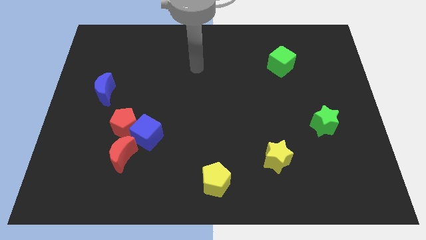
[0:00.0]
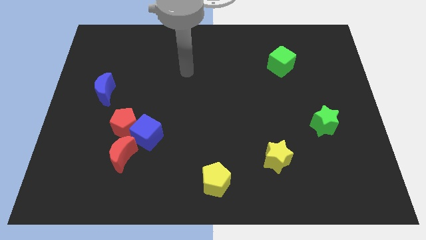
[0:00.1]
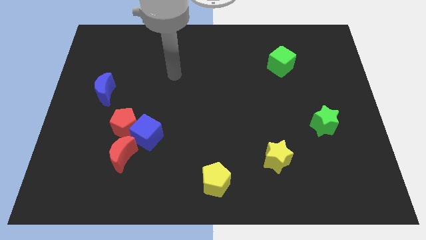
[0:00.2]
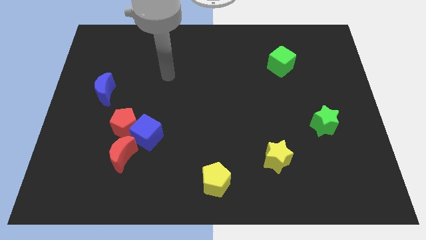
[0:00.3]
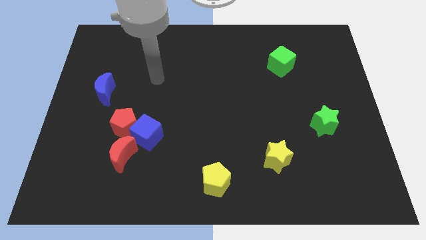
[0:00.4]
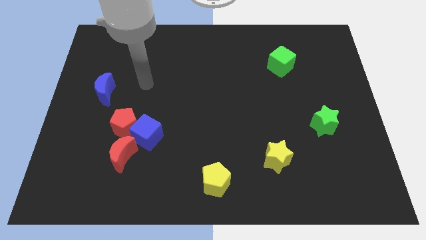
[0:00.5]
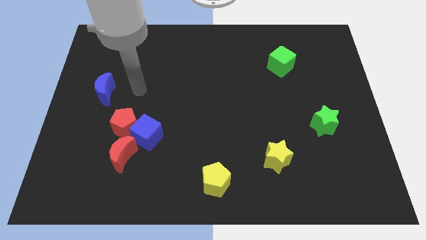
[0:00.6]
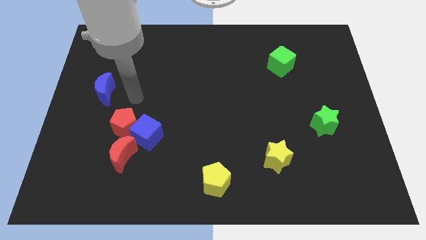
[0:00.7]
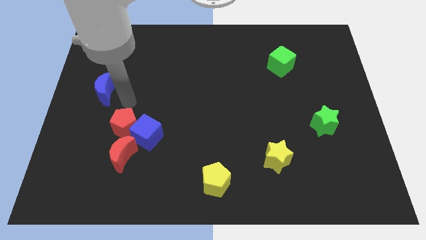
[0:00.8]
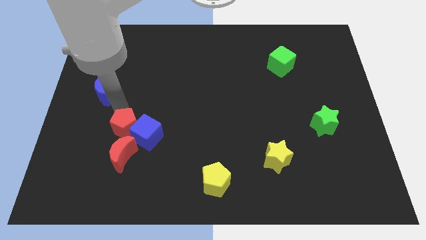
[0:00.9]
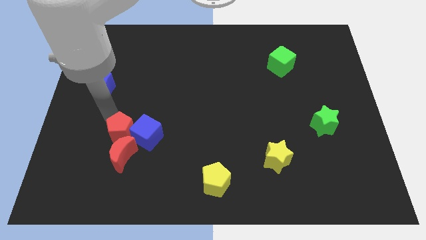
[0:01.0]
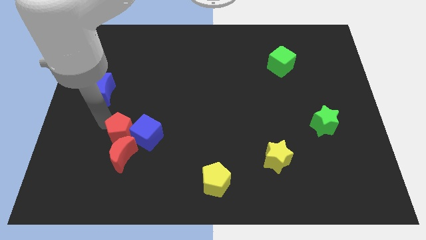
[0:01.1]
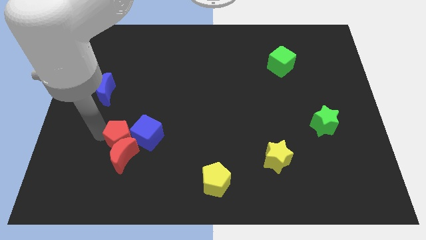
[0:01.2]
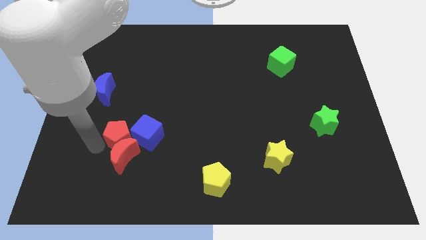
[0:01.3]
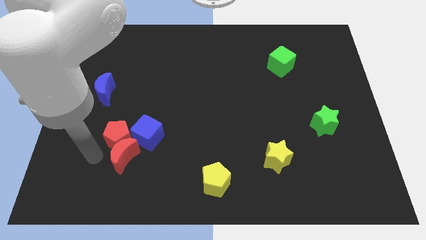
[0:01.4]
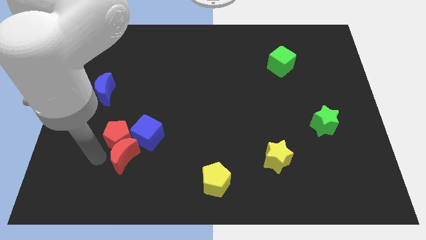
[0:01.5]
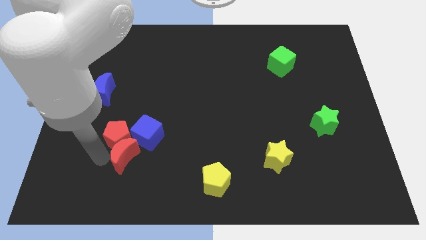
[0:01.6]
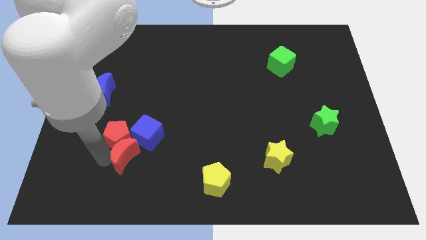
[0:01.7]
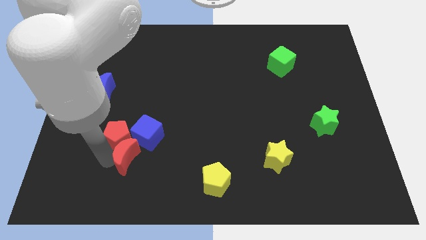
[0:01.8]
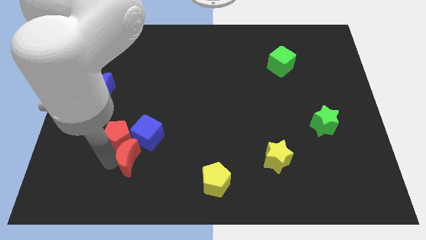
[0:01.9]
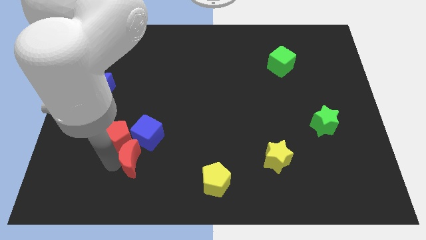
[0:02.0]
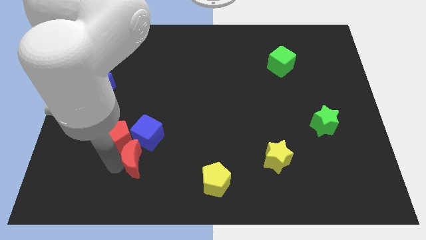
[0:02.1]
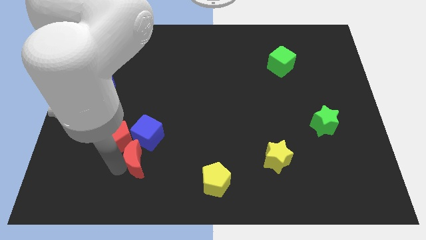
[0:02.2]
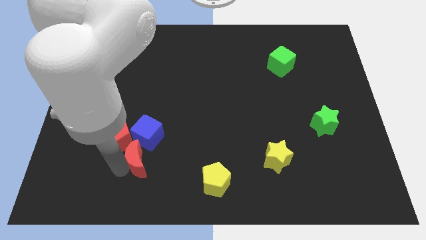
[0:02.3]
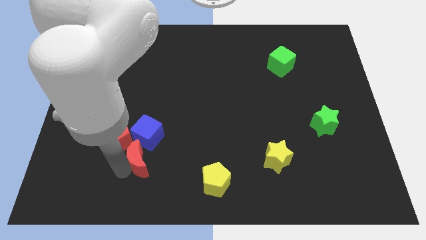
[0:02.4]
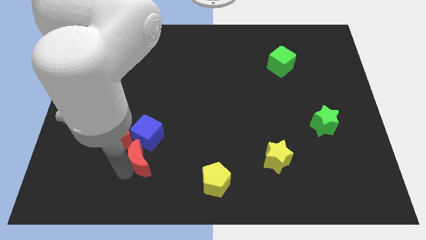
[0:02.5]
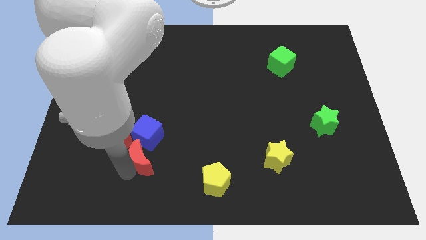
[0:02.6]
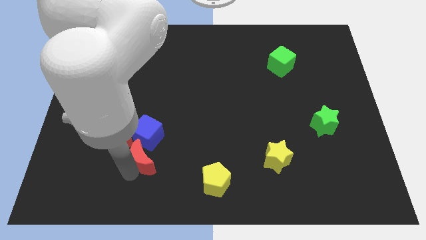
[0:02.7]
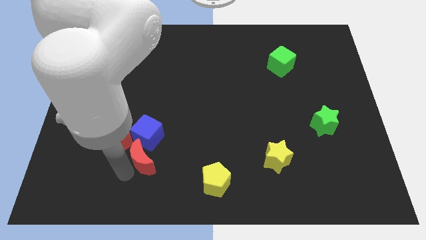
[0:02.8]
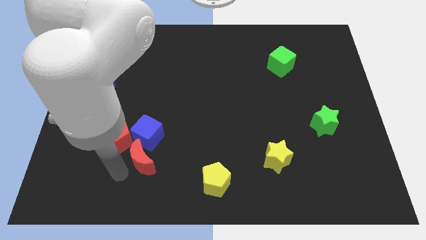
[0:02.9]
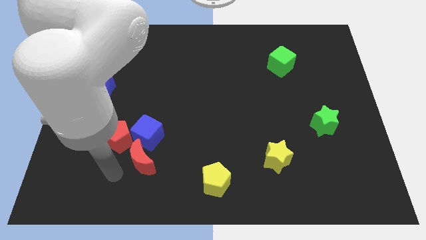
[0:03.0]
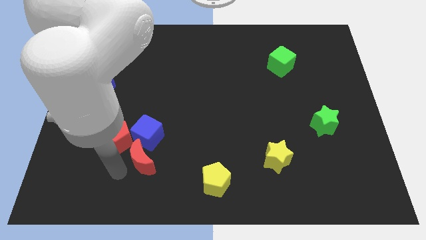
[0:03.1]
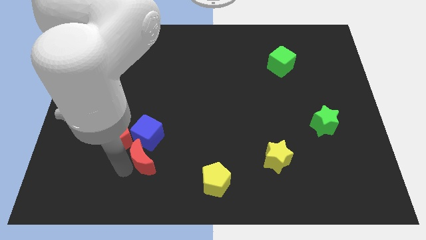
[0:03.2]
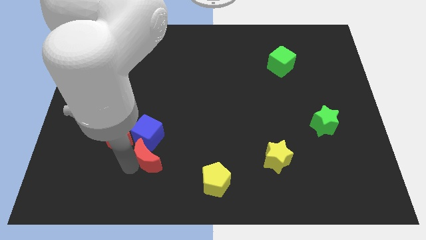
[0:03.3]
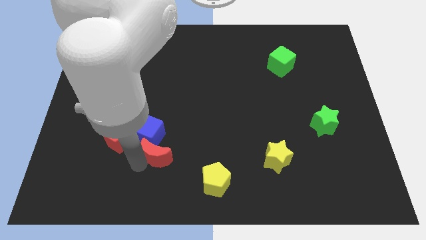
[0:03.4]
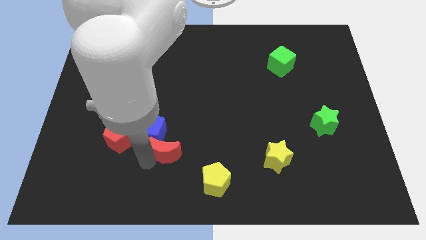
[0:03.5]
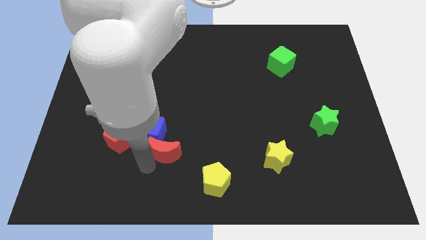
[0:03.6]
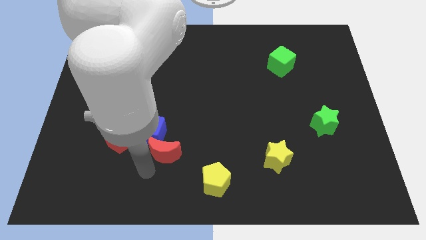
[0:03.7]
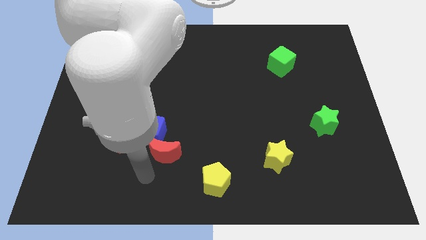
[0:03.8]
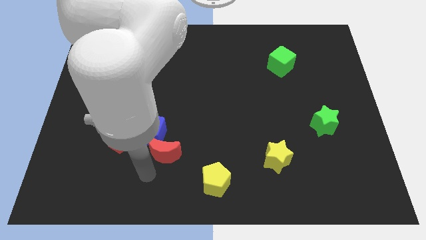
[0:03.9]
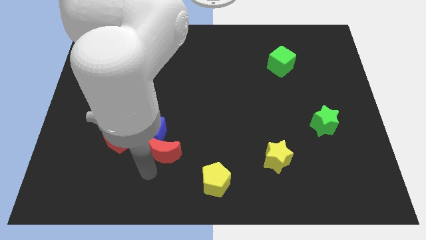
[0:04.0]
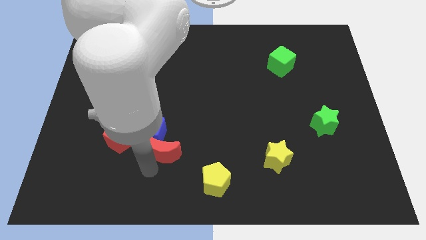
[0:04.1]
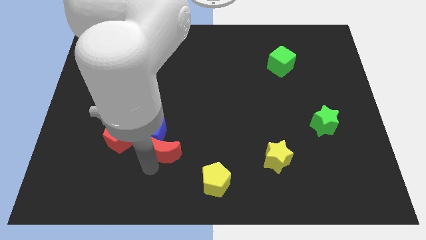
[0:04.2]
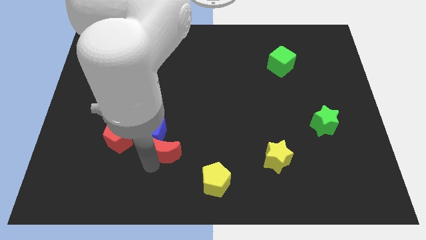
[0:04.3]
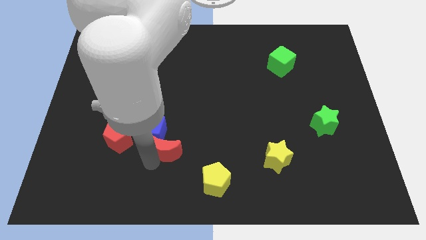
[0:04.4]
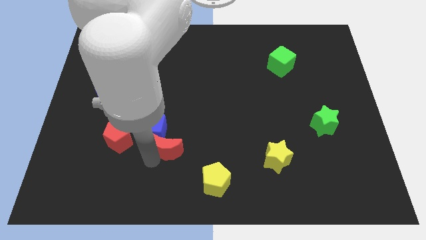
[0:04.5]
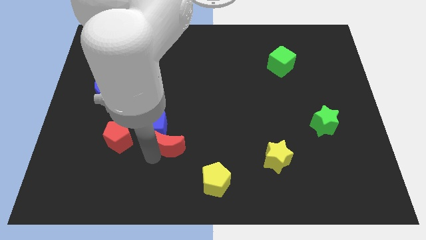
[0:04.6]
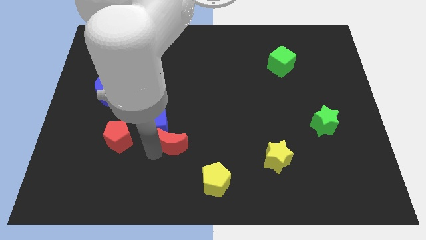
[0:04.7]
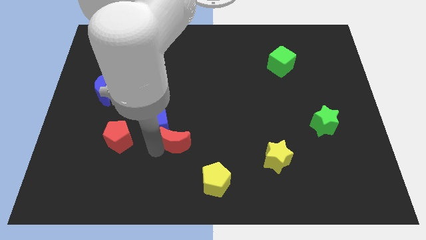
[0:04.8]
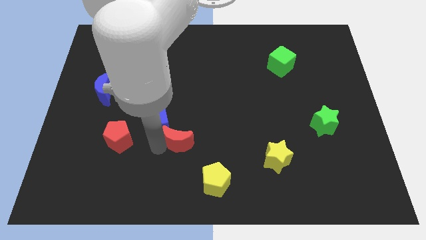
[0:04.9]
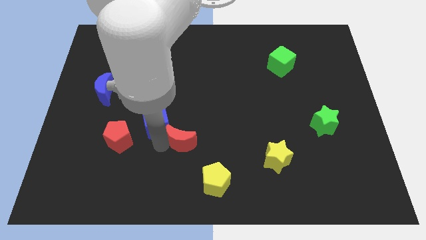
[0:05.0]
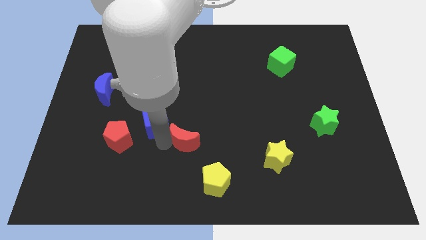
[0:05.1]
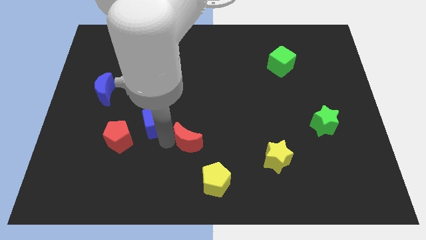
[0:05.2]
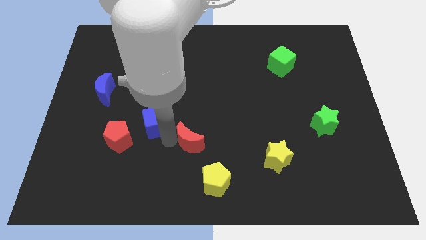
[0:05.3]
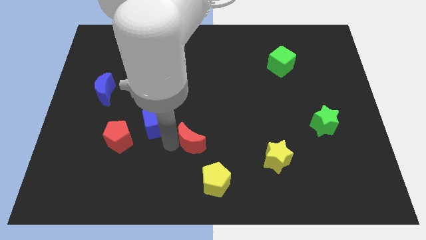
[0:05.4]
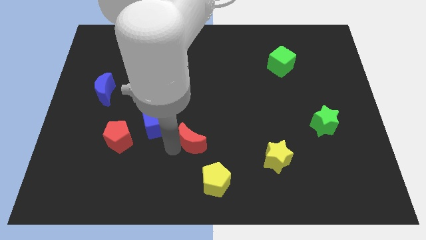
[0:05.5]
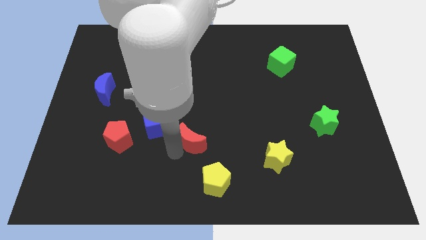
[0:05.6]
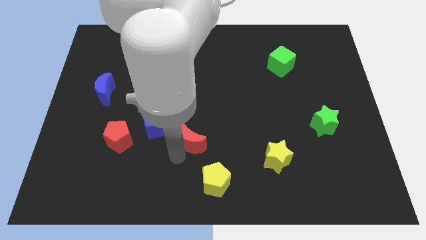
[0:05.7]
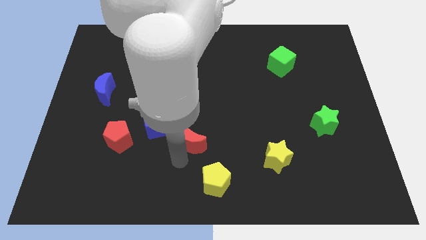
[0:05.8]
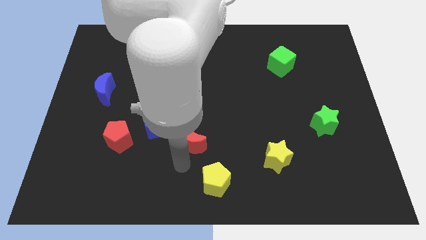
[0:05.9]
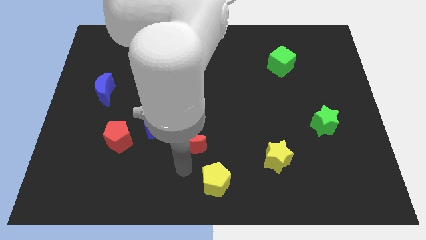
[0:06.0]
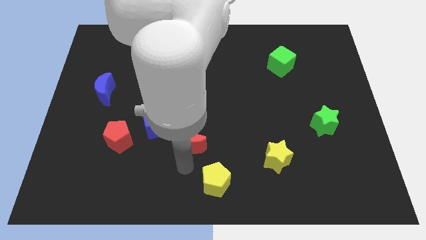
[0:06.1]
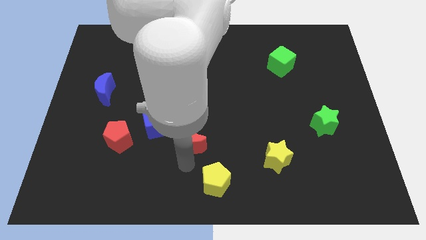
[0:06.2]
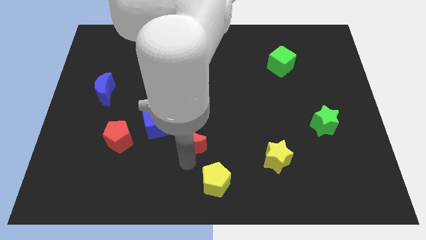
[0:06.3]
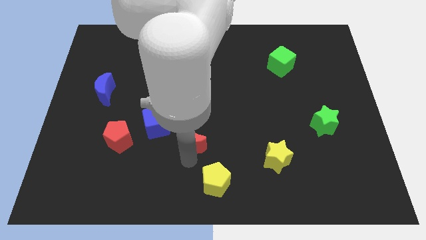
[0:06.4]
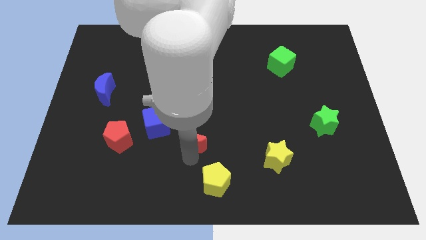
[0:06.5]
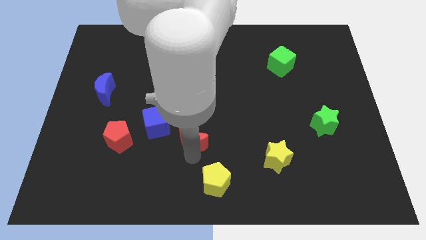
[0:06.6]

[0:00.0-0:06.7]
push the red moon to the center of the board
